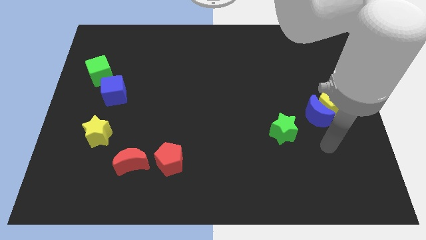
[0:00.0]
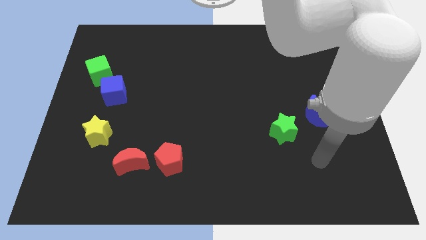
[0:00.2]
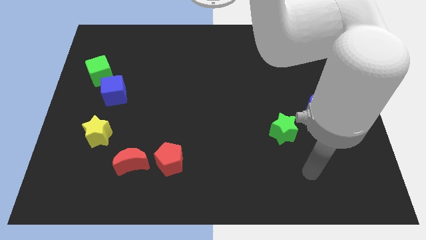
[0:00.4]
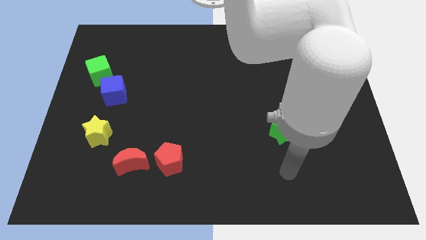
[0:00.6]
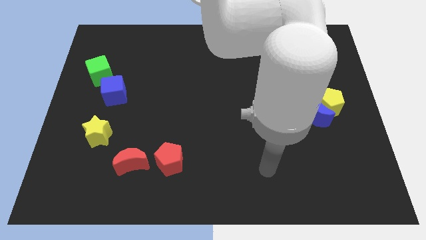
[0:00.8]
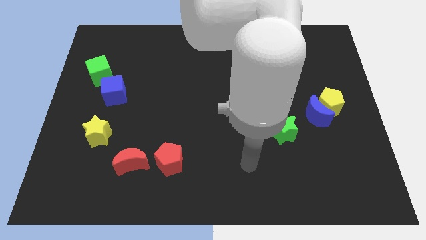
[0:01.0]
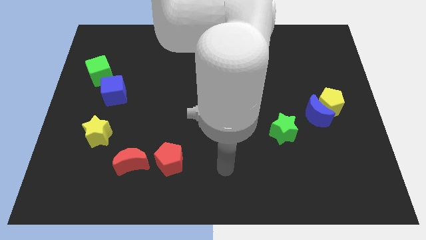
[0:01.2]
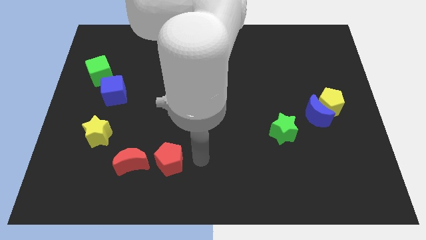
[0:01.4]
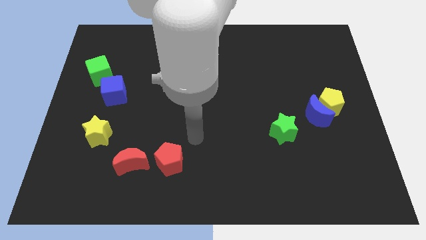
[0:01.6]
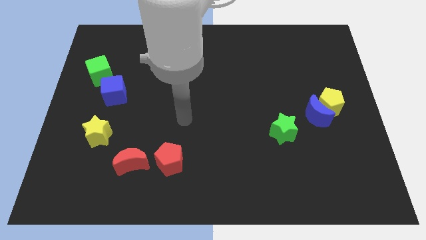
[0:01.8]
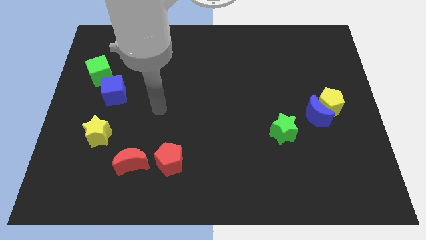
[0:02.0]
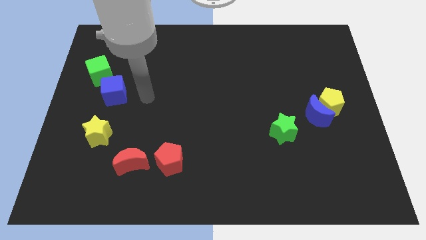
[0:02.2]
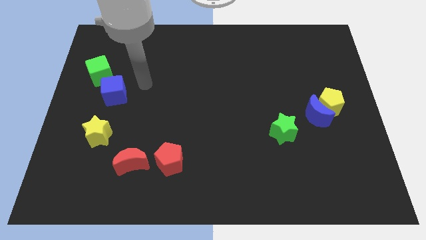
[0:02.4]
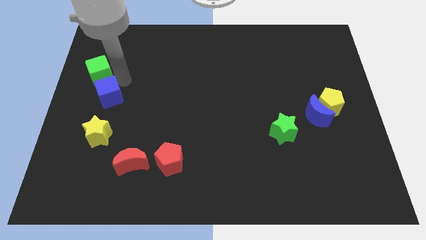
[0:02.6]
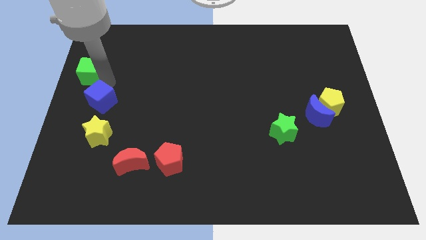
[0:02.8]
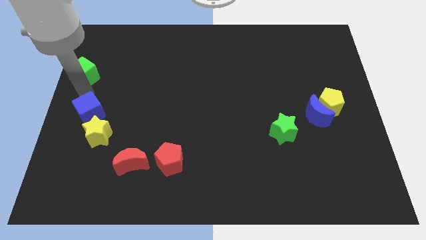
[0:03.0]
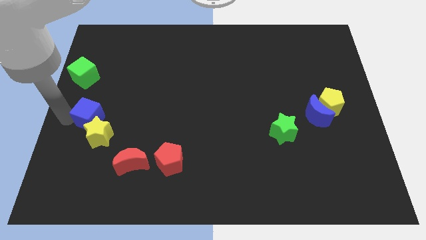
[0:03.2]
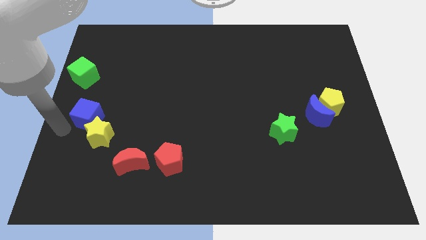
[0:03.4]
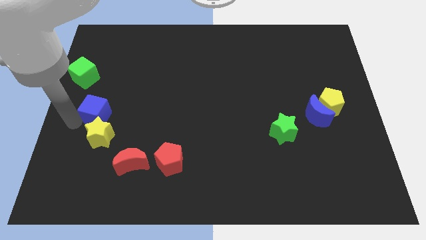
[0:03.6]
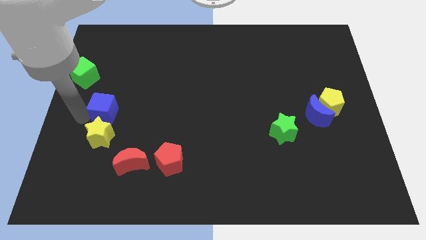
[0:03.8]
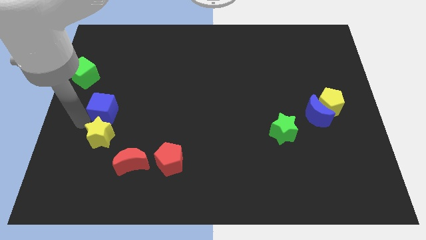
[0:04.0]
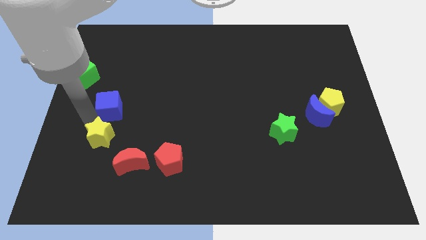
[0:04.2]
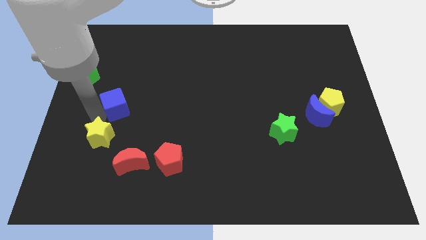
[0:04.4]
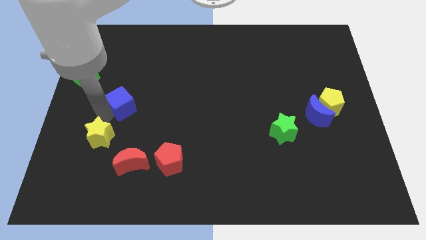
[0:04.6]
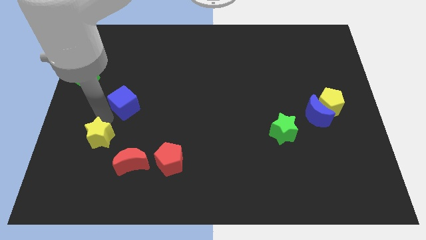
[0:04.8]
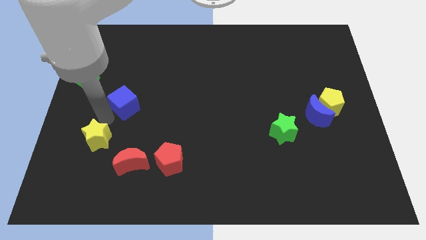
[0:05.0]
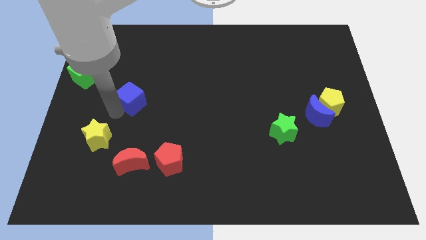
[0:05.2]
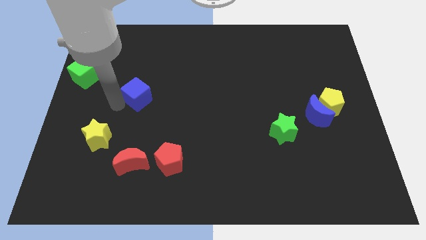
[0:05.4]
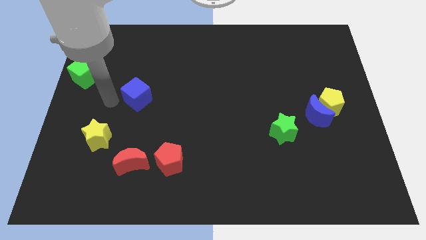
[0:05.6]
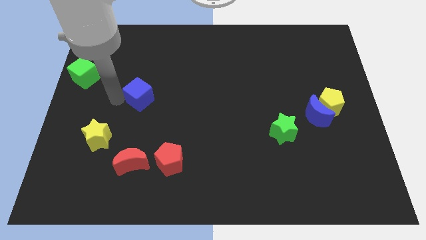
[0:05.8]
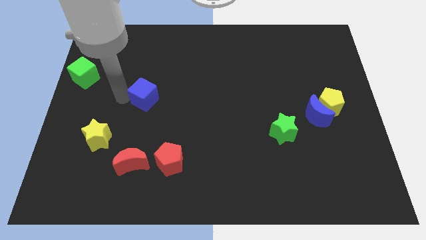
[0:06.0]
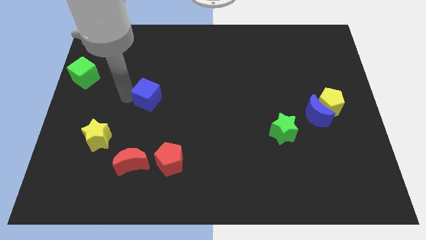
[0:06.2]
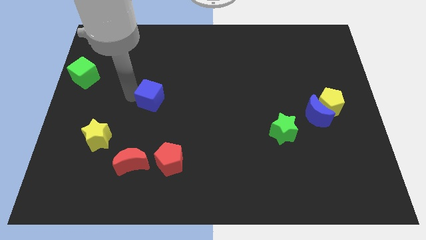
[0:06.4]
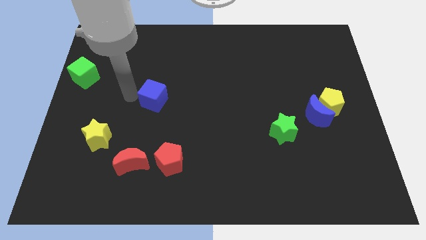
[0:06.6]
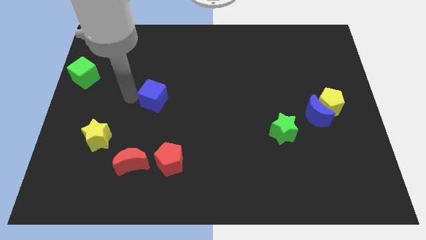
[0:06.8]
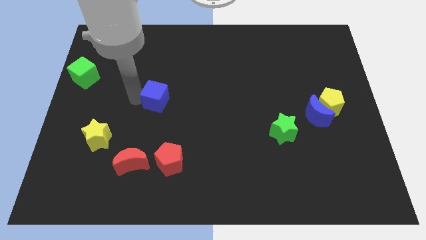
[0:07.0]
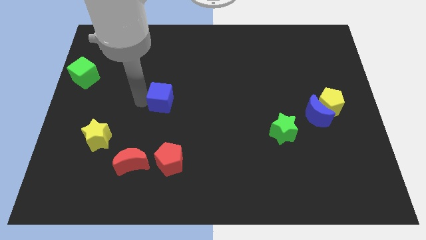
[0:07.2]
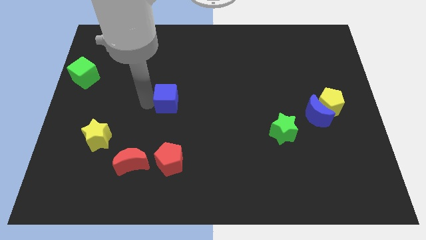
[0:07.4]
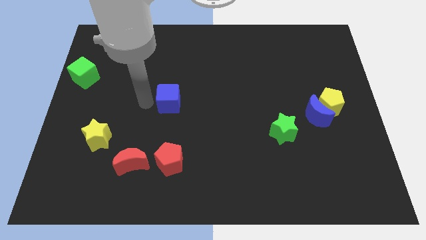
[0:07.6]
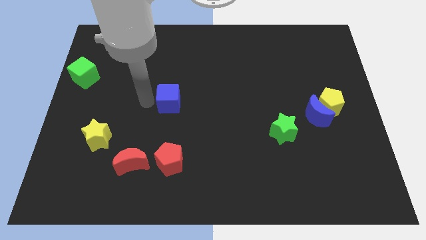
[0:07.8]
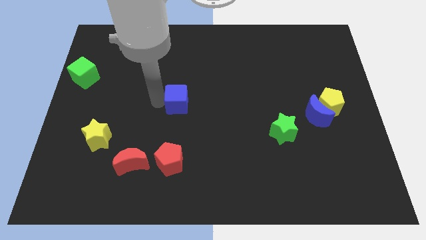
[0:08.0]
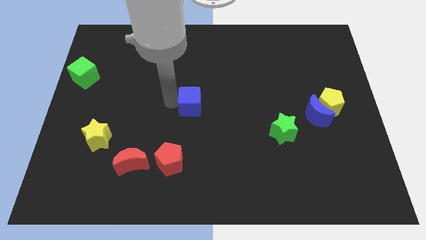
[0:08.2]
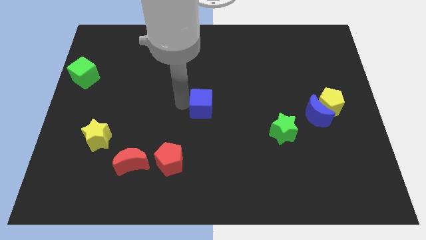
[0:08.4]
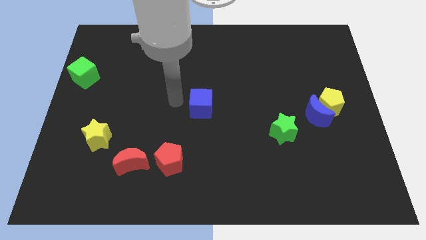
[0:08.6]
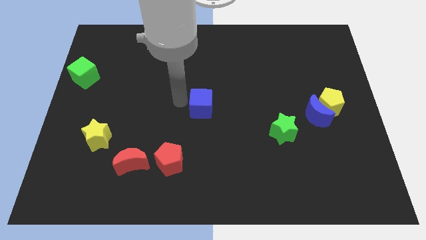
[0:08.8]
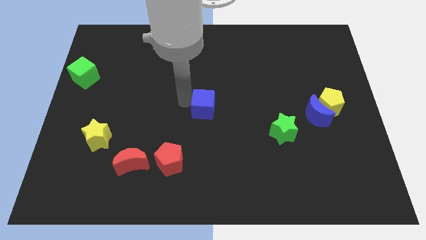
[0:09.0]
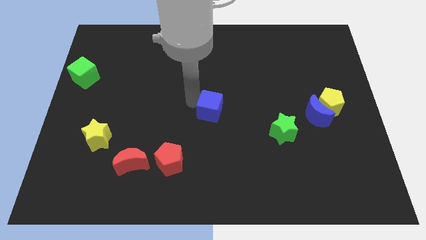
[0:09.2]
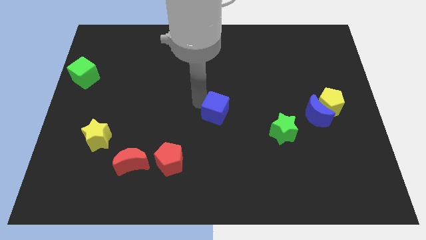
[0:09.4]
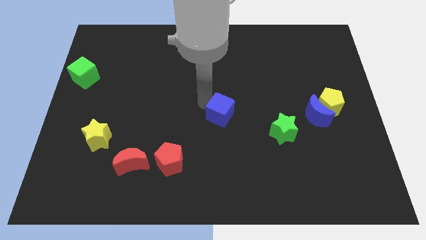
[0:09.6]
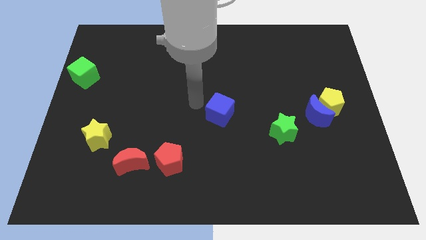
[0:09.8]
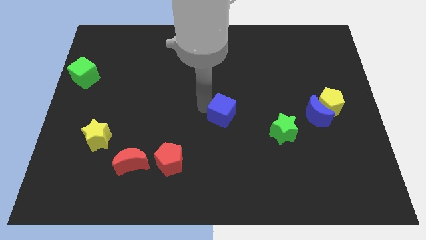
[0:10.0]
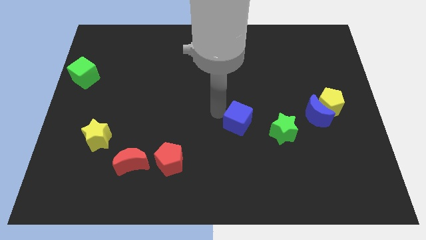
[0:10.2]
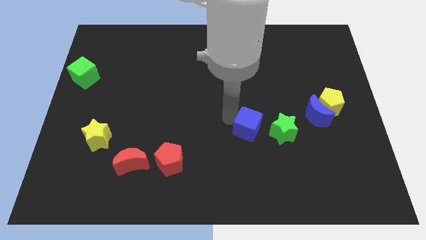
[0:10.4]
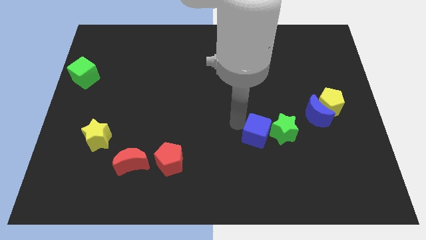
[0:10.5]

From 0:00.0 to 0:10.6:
slide the blue cube towards the green star

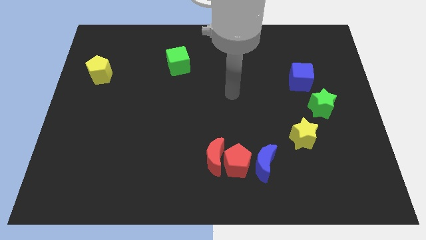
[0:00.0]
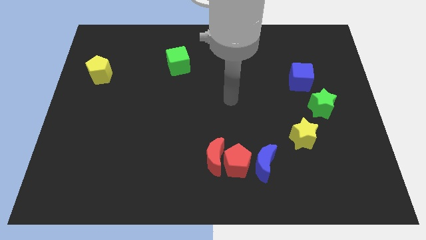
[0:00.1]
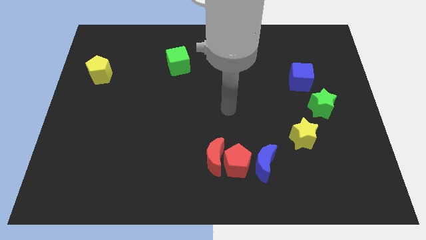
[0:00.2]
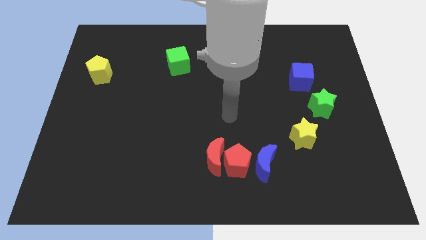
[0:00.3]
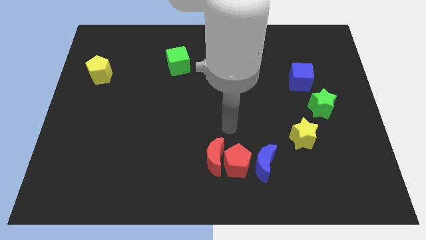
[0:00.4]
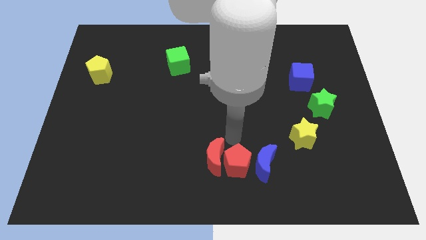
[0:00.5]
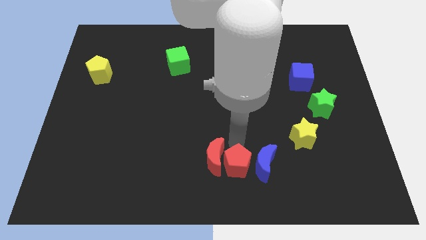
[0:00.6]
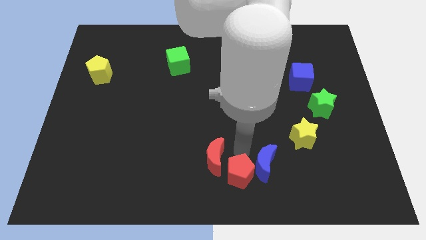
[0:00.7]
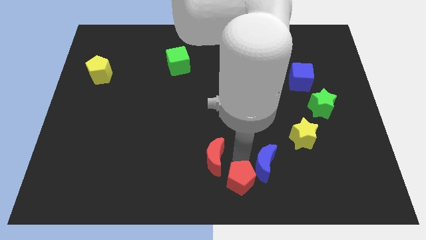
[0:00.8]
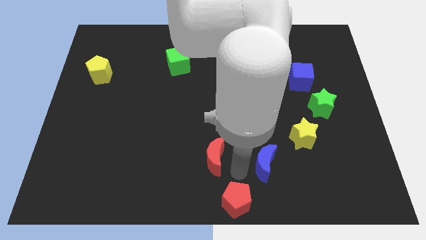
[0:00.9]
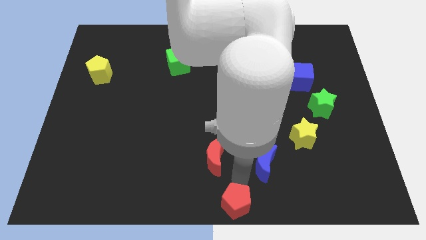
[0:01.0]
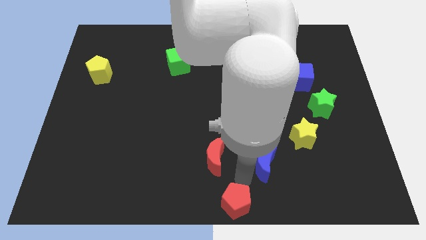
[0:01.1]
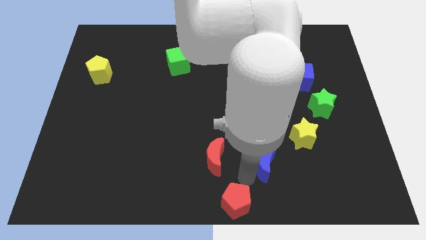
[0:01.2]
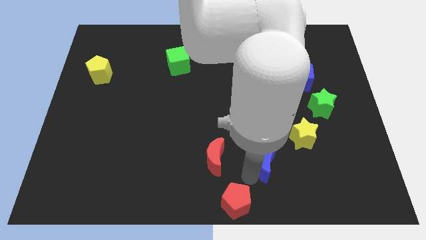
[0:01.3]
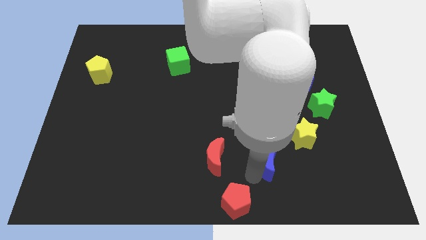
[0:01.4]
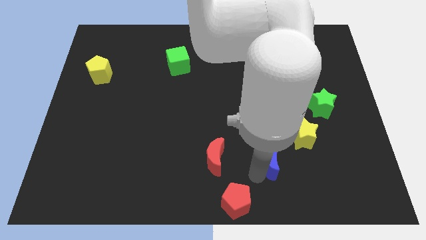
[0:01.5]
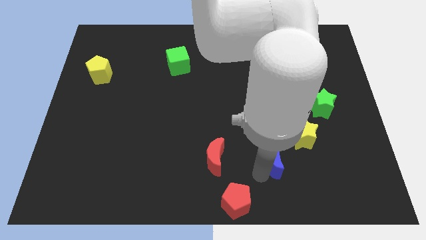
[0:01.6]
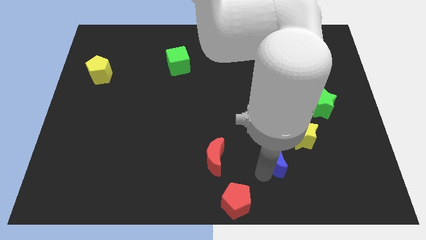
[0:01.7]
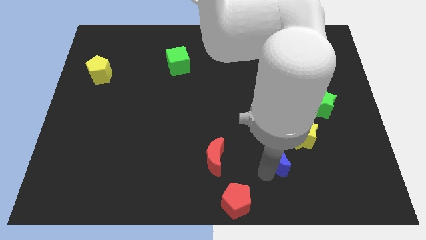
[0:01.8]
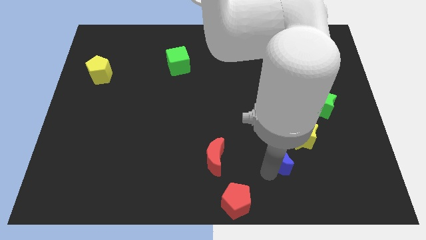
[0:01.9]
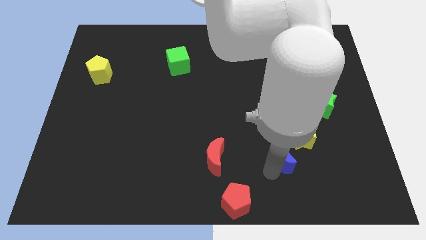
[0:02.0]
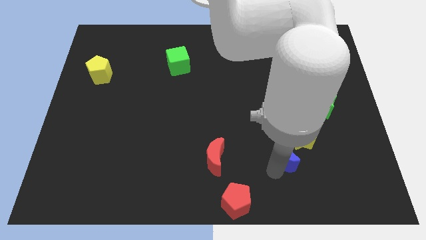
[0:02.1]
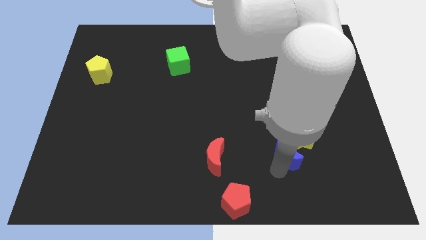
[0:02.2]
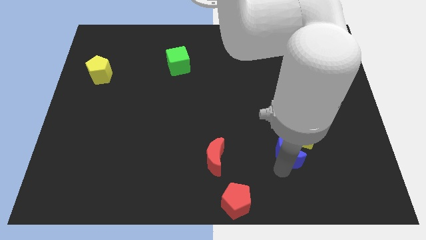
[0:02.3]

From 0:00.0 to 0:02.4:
push the blue moon next to the yellow star
